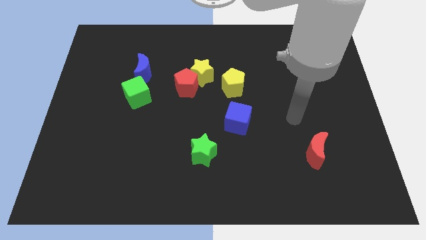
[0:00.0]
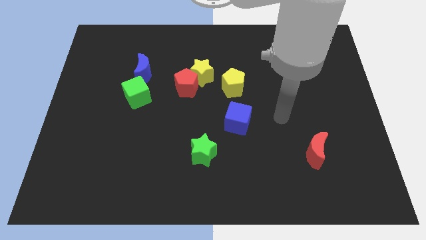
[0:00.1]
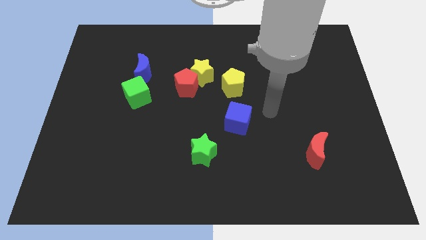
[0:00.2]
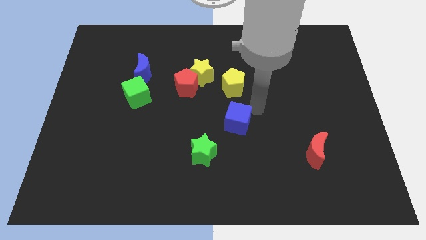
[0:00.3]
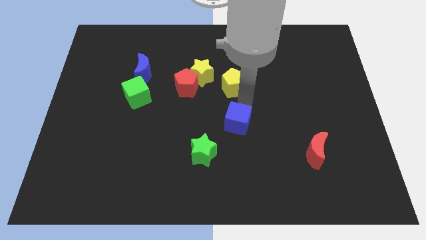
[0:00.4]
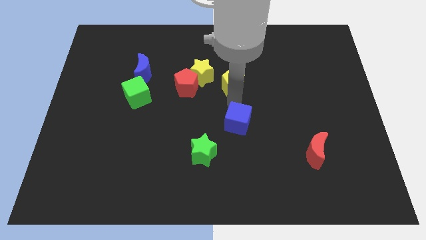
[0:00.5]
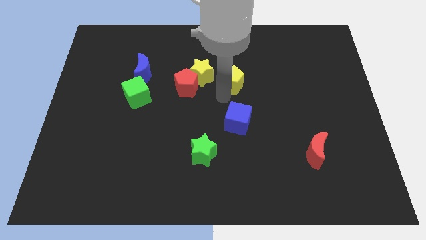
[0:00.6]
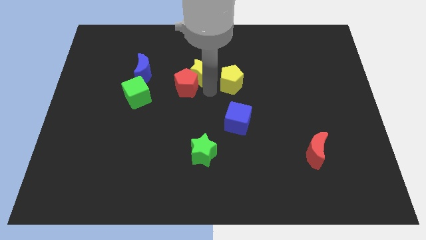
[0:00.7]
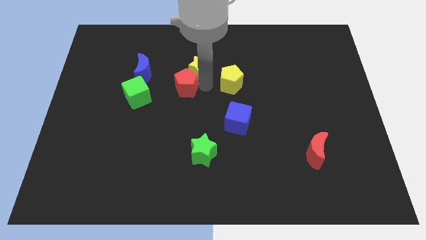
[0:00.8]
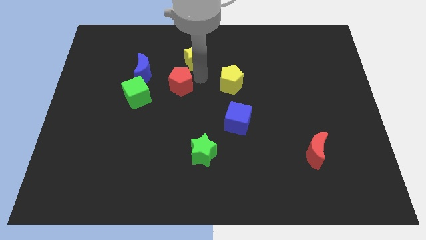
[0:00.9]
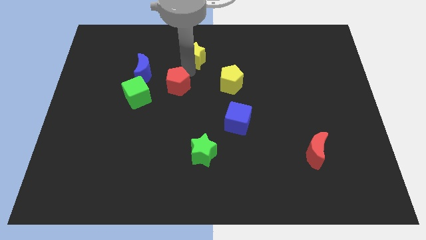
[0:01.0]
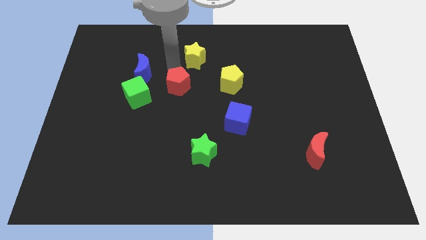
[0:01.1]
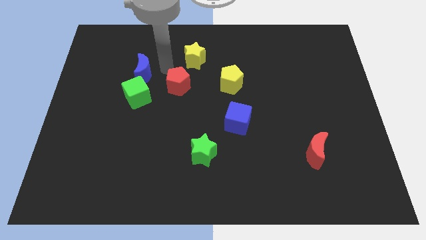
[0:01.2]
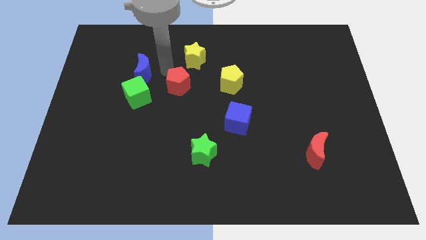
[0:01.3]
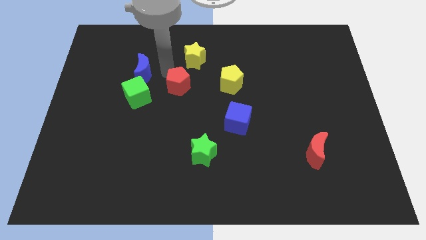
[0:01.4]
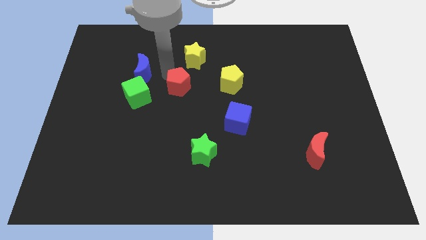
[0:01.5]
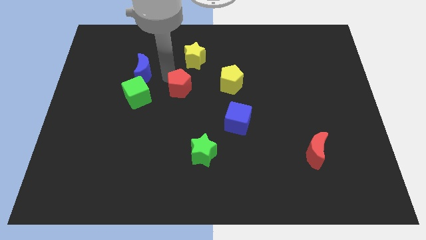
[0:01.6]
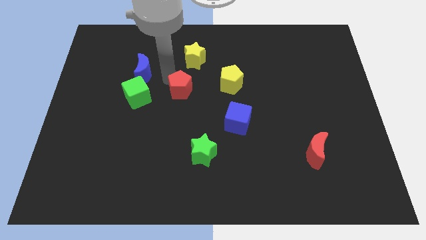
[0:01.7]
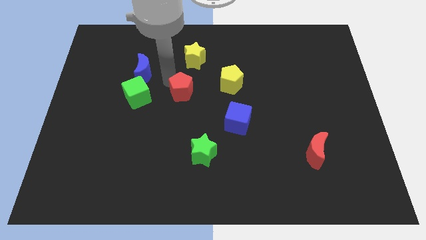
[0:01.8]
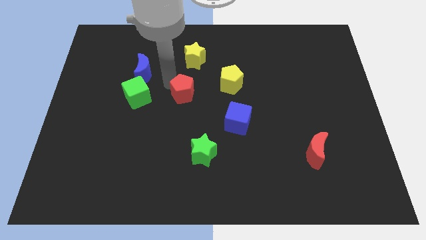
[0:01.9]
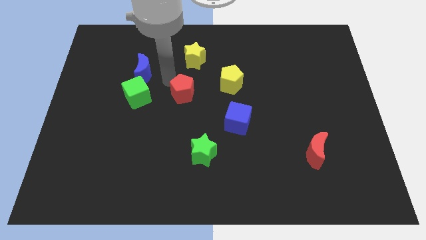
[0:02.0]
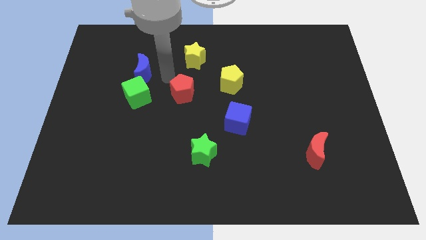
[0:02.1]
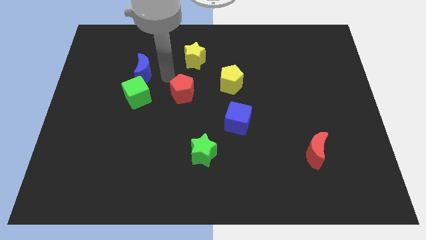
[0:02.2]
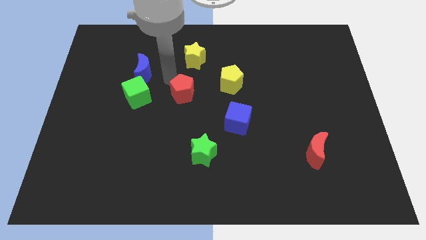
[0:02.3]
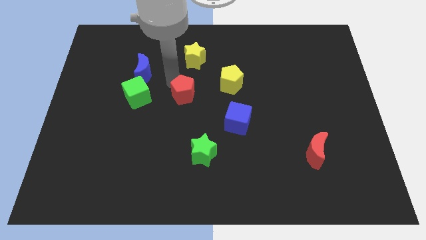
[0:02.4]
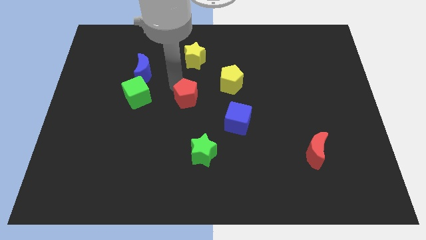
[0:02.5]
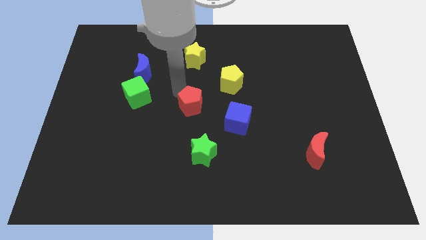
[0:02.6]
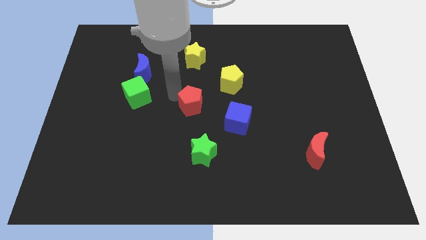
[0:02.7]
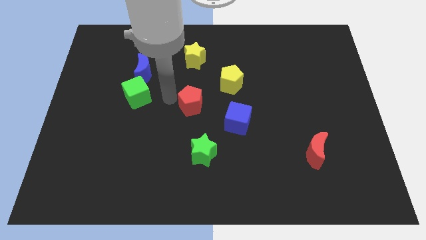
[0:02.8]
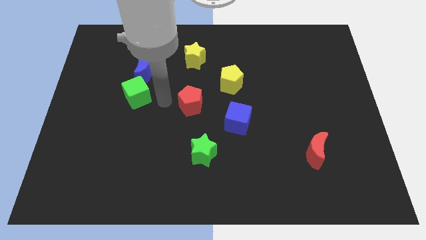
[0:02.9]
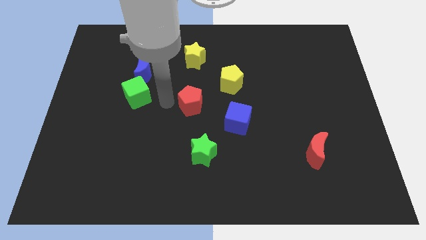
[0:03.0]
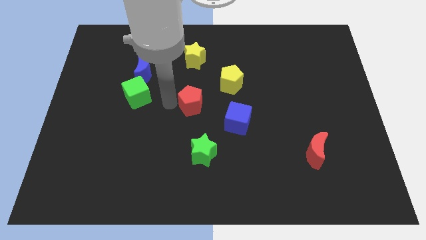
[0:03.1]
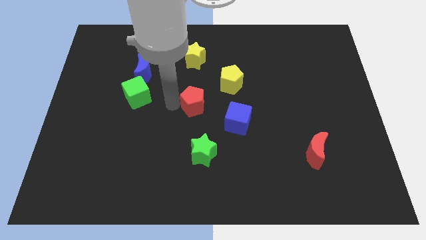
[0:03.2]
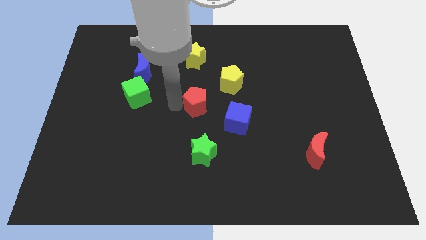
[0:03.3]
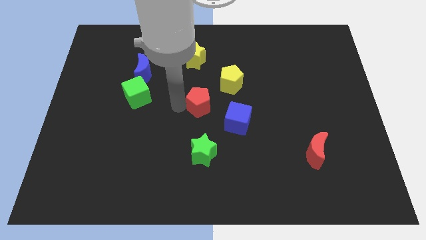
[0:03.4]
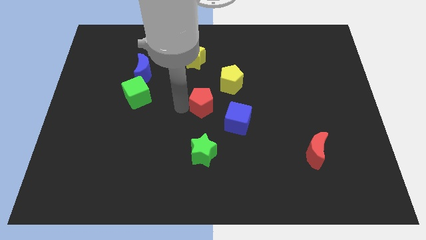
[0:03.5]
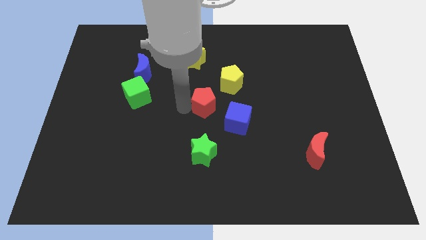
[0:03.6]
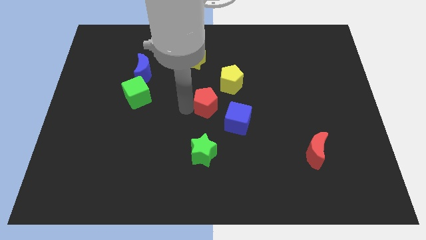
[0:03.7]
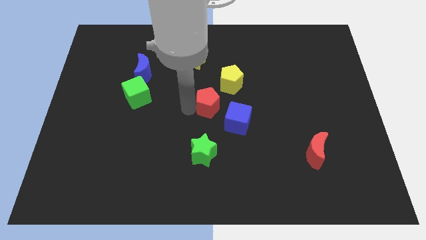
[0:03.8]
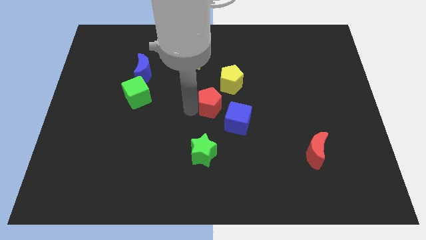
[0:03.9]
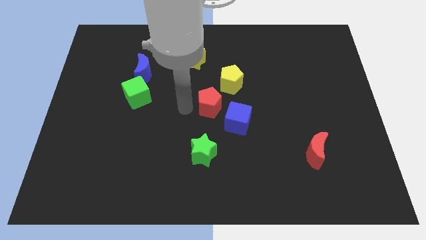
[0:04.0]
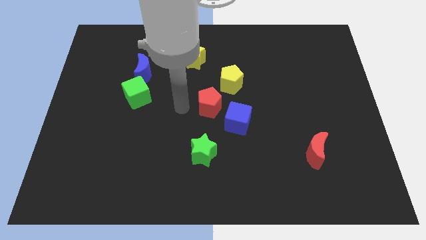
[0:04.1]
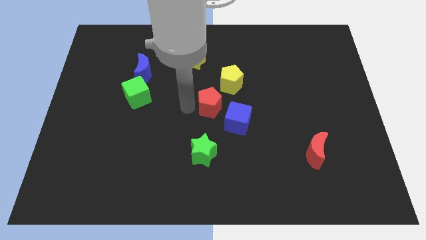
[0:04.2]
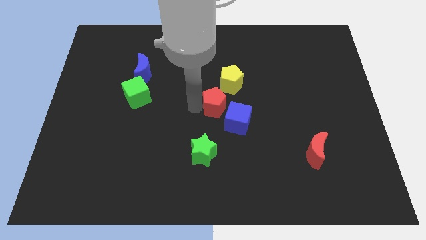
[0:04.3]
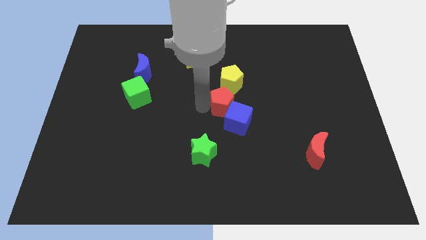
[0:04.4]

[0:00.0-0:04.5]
slide the red pentagon right a little bit

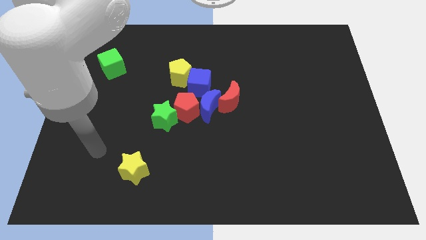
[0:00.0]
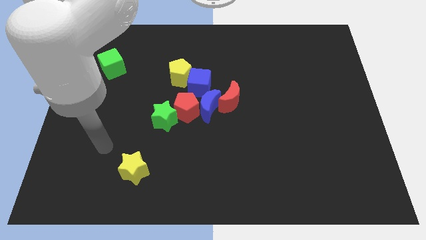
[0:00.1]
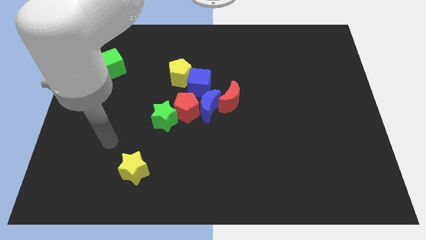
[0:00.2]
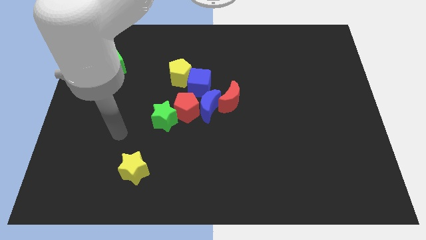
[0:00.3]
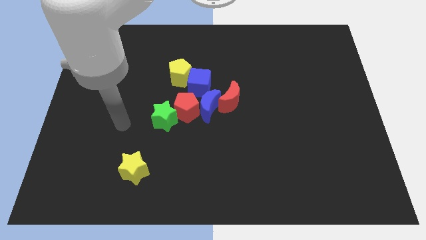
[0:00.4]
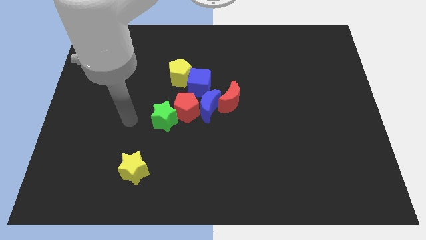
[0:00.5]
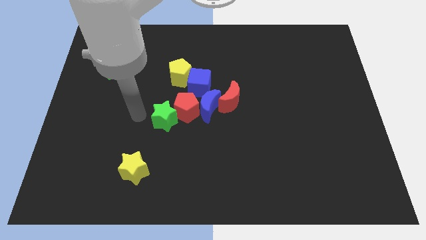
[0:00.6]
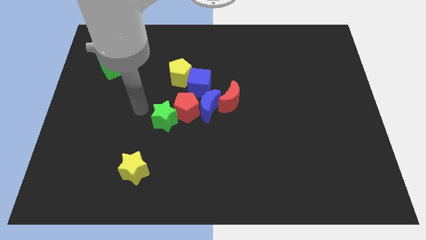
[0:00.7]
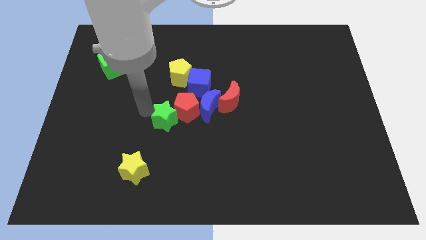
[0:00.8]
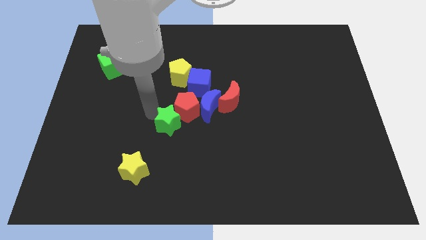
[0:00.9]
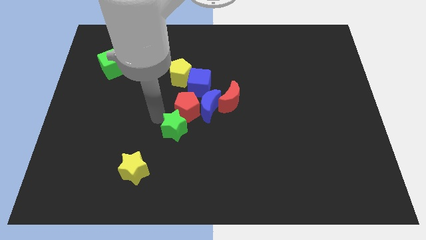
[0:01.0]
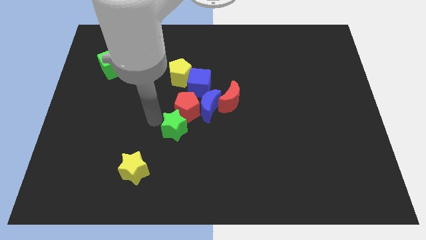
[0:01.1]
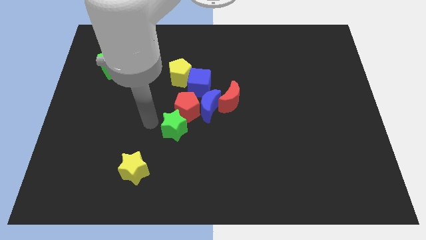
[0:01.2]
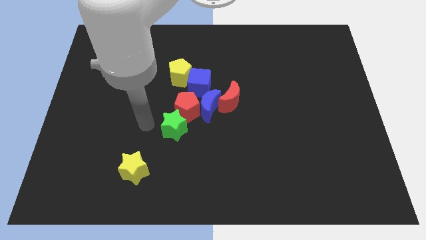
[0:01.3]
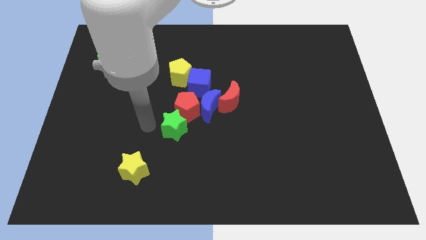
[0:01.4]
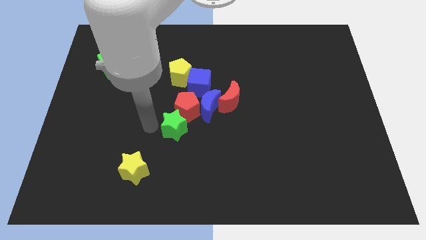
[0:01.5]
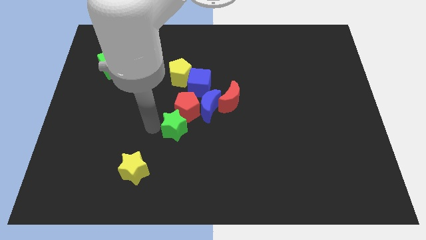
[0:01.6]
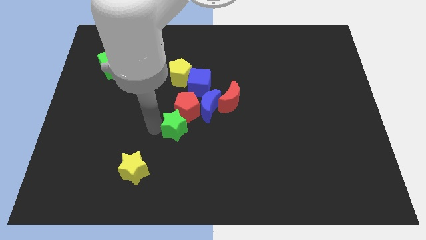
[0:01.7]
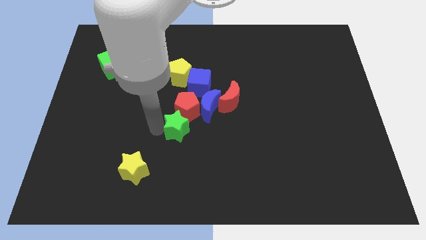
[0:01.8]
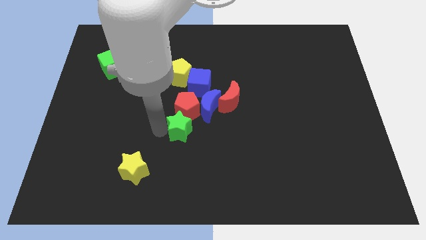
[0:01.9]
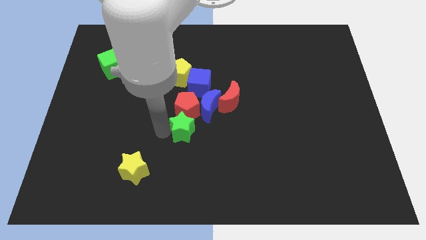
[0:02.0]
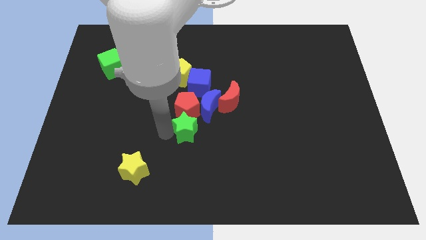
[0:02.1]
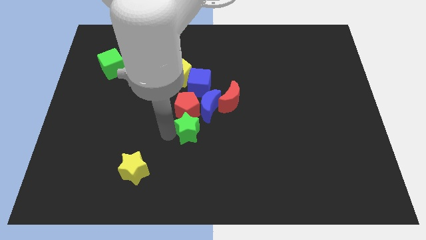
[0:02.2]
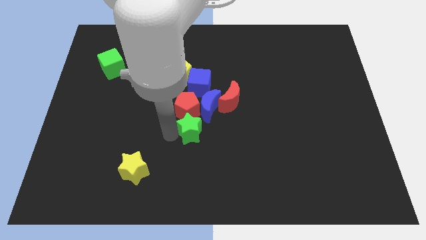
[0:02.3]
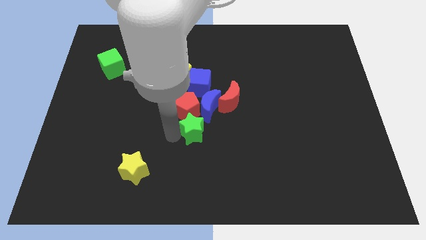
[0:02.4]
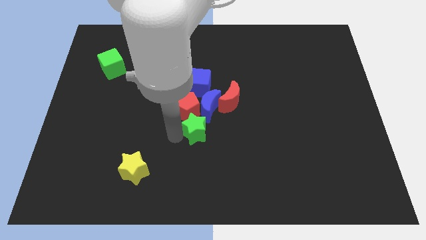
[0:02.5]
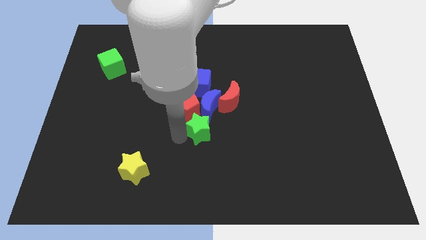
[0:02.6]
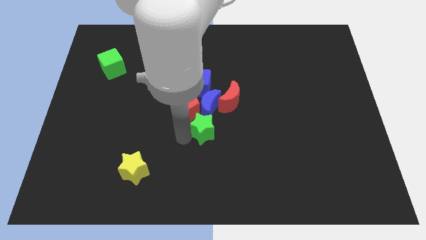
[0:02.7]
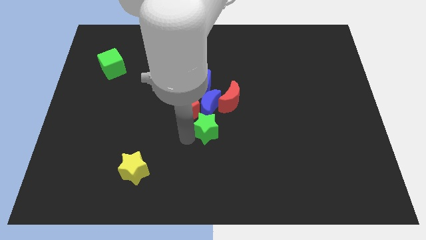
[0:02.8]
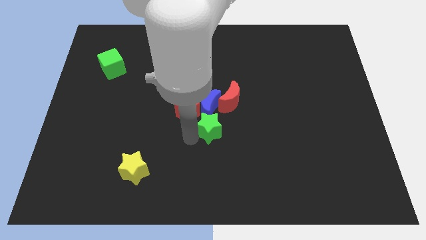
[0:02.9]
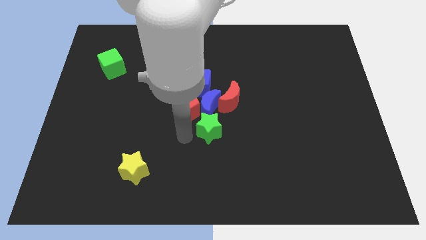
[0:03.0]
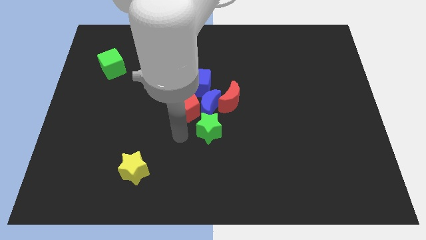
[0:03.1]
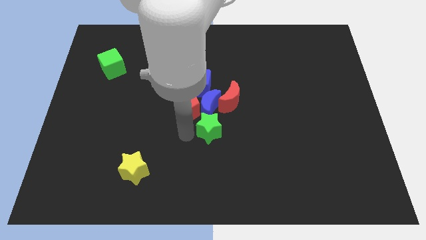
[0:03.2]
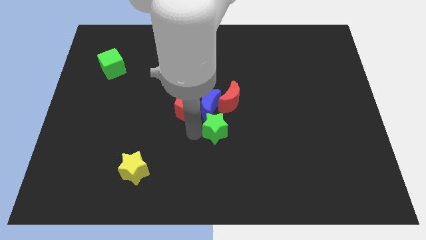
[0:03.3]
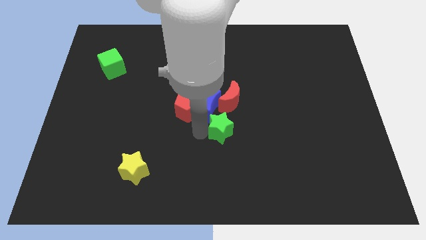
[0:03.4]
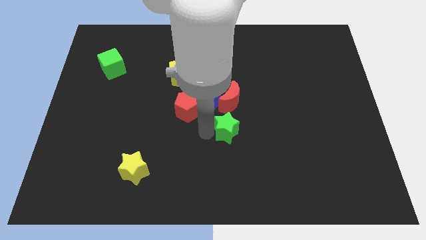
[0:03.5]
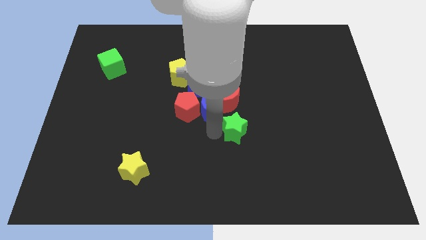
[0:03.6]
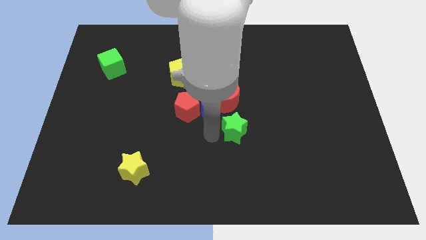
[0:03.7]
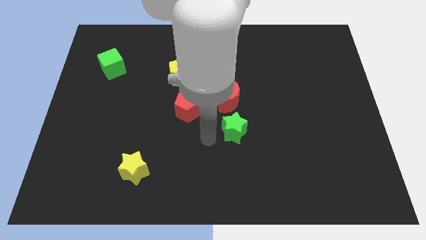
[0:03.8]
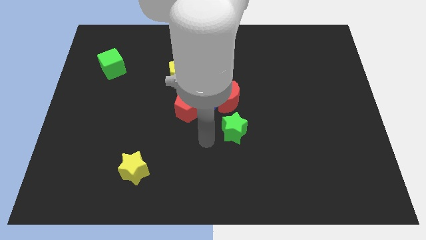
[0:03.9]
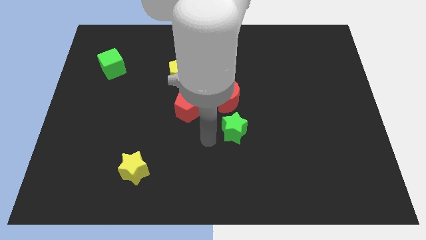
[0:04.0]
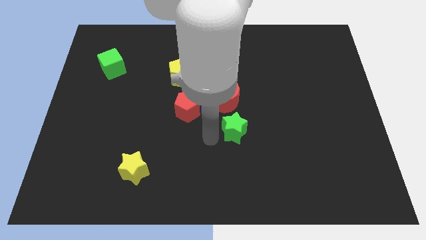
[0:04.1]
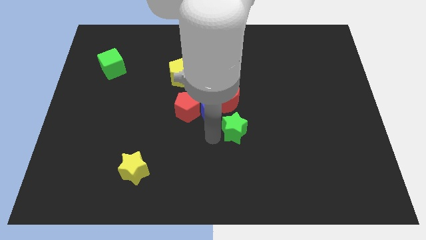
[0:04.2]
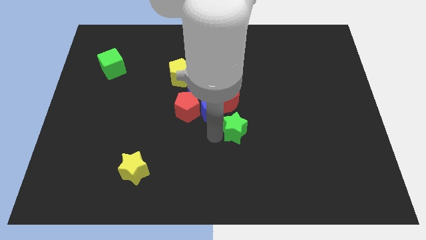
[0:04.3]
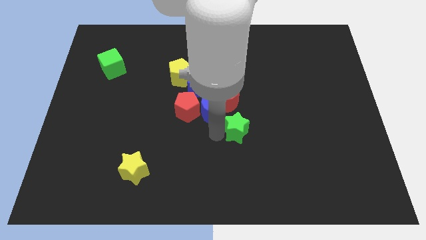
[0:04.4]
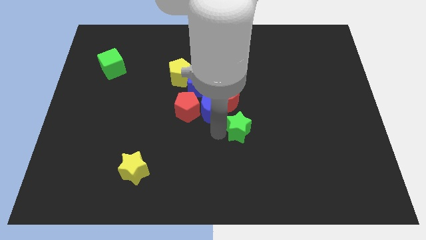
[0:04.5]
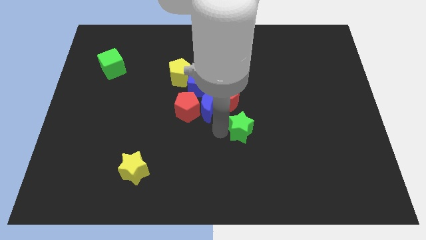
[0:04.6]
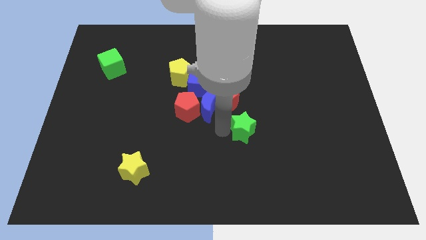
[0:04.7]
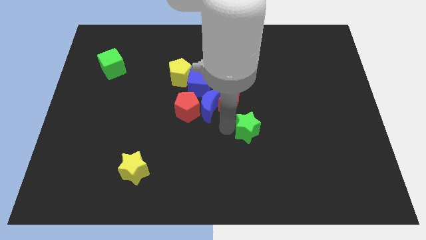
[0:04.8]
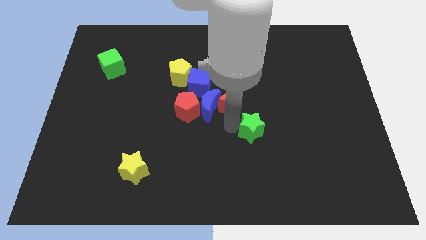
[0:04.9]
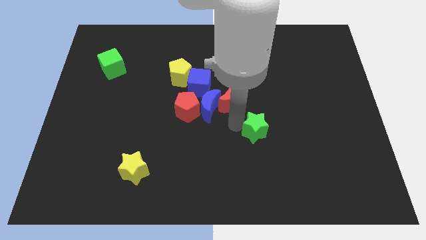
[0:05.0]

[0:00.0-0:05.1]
move the green star right
